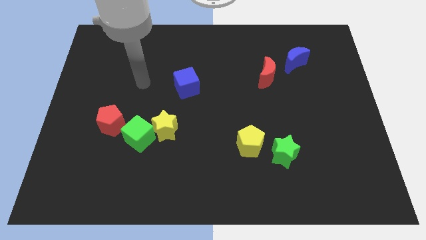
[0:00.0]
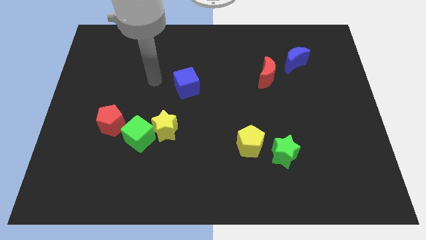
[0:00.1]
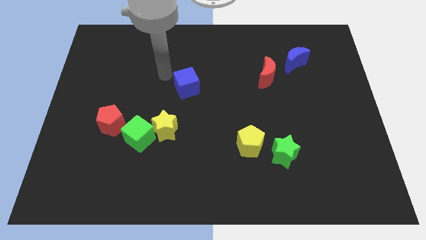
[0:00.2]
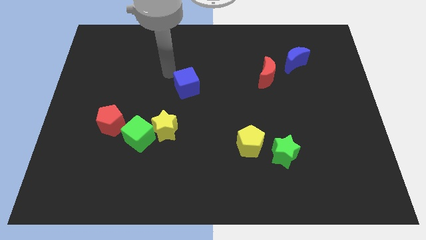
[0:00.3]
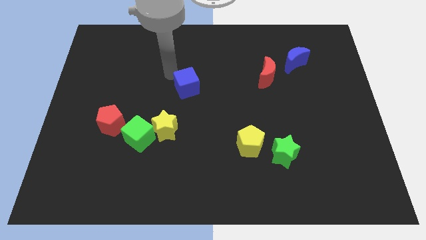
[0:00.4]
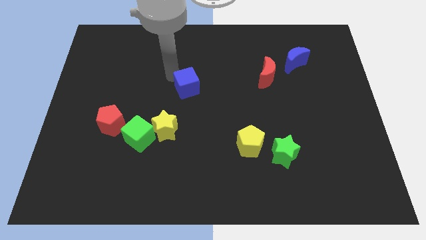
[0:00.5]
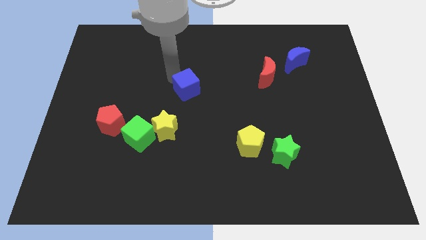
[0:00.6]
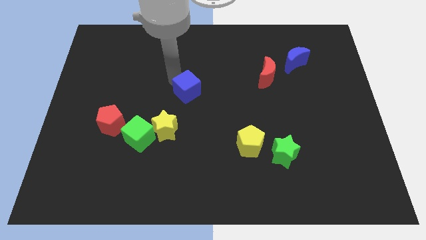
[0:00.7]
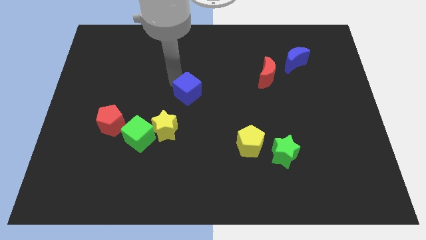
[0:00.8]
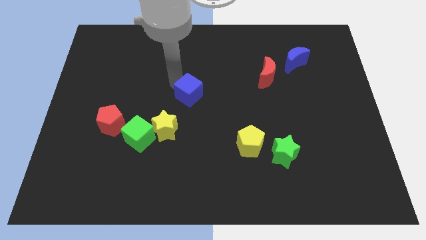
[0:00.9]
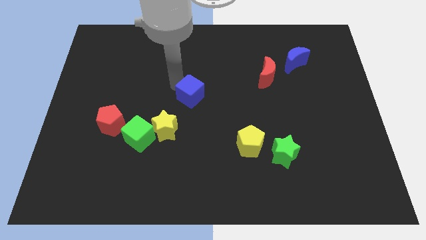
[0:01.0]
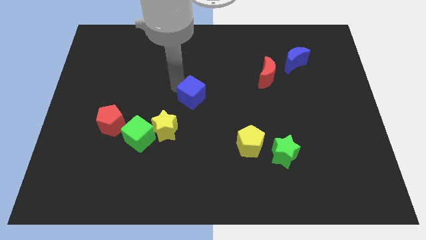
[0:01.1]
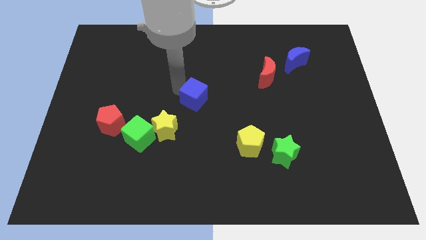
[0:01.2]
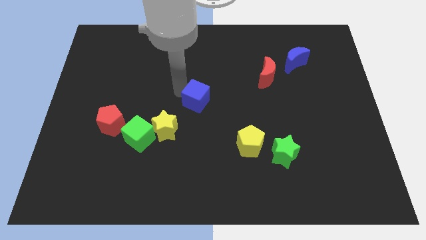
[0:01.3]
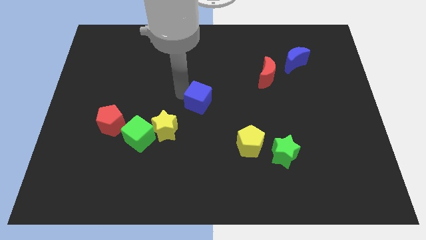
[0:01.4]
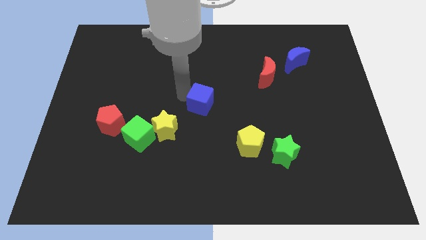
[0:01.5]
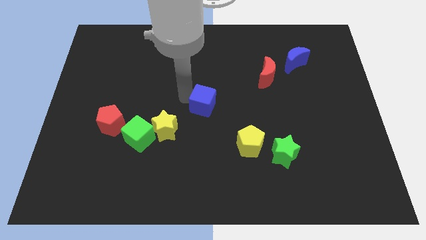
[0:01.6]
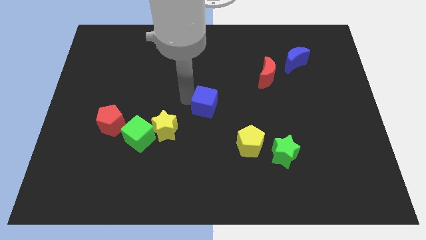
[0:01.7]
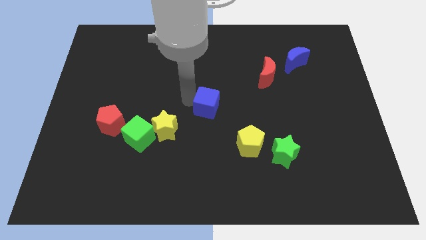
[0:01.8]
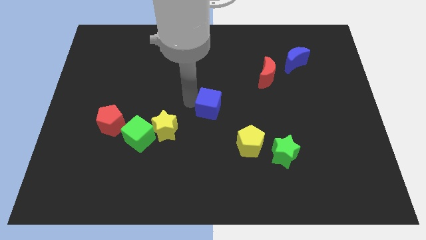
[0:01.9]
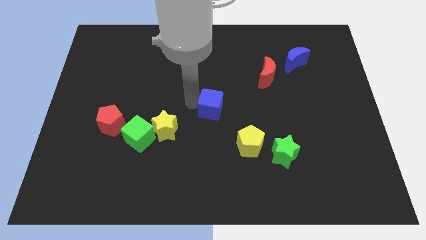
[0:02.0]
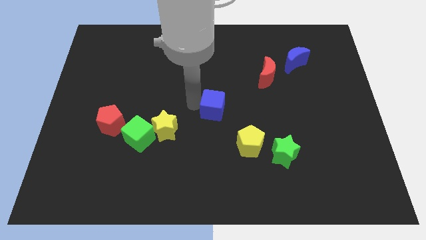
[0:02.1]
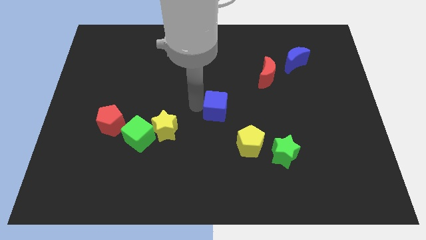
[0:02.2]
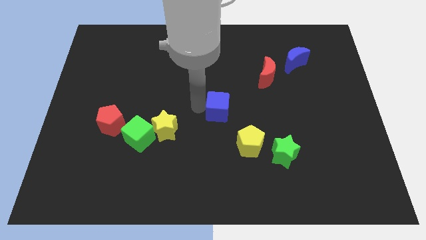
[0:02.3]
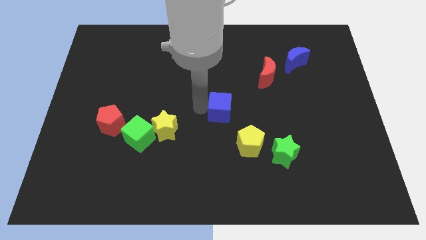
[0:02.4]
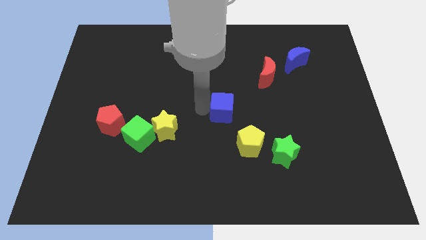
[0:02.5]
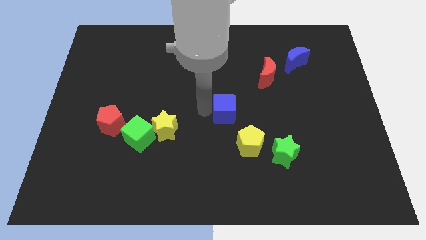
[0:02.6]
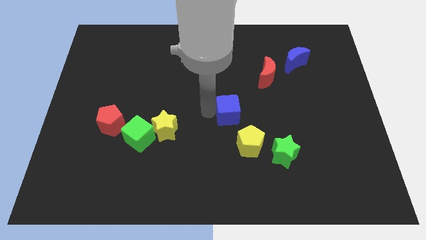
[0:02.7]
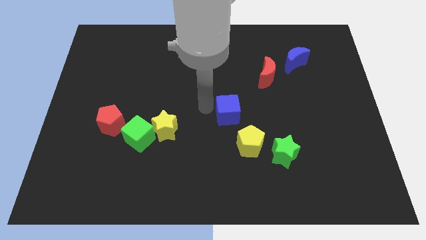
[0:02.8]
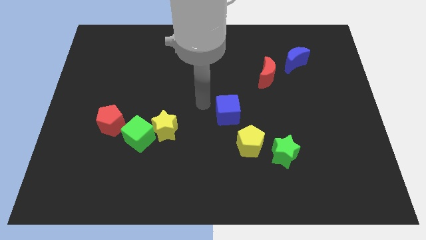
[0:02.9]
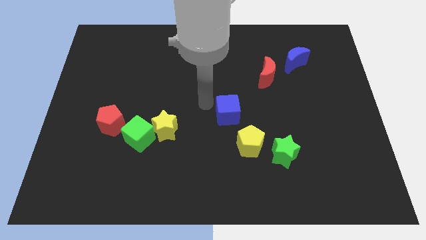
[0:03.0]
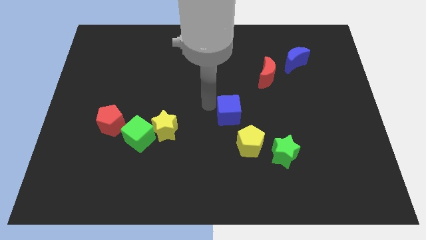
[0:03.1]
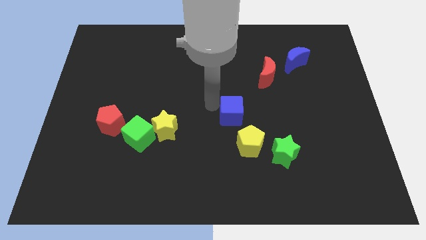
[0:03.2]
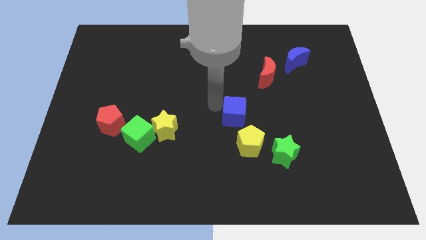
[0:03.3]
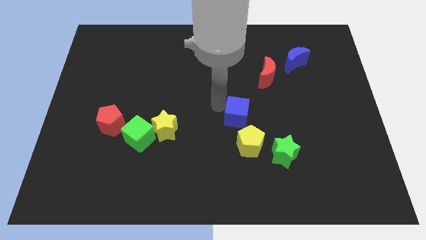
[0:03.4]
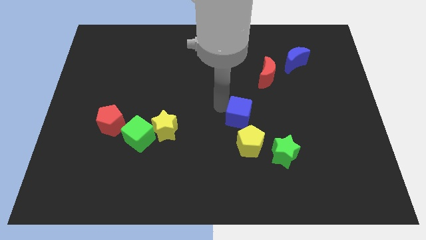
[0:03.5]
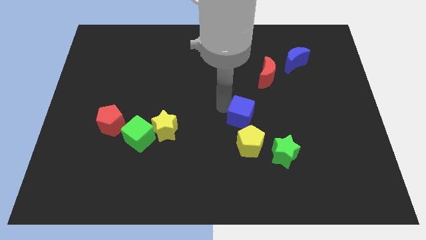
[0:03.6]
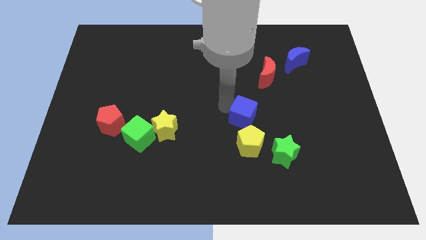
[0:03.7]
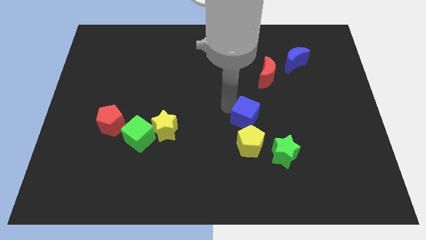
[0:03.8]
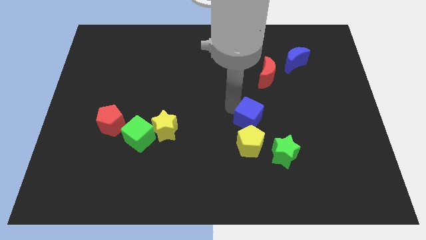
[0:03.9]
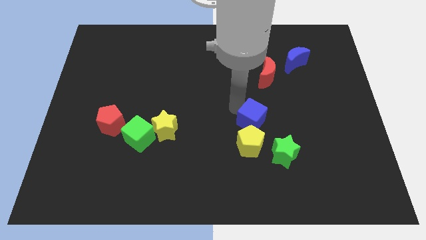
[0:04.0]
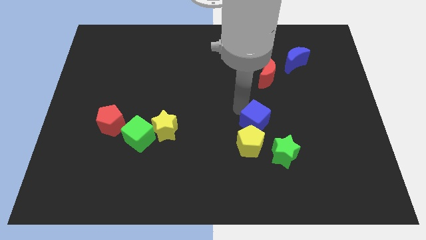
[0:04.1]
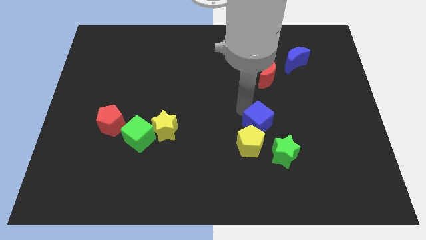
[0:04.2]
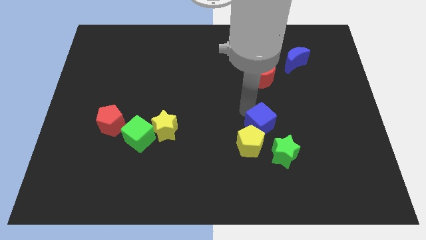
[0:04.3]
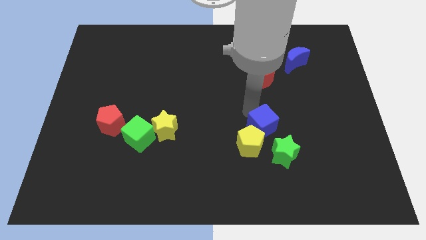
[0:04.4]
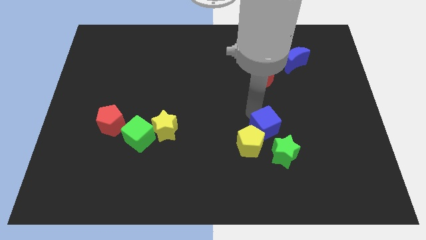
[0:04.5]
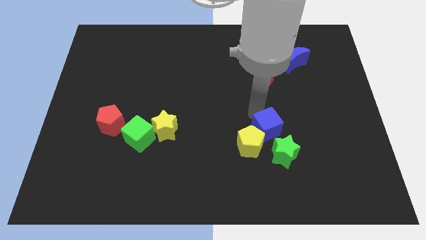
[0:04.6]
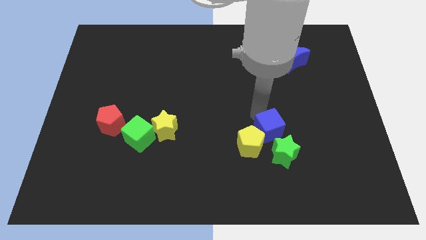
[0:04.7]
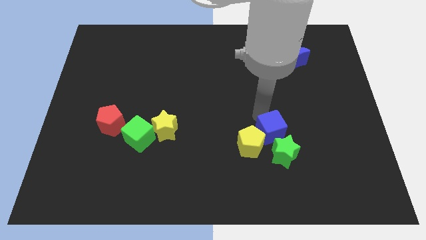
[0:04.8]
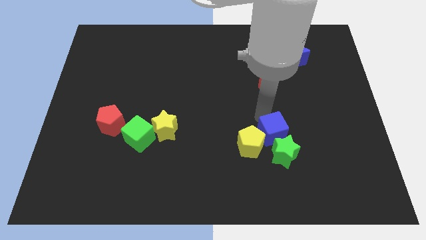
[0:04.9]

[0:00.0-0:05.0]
push the blue cube to the green star

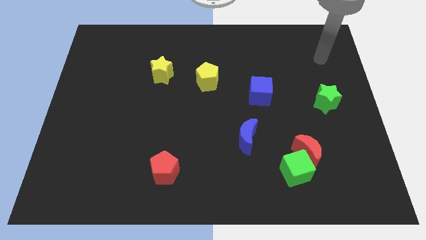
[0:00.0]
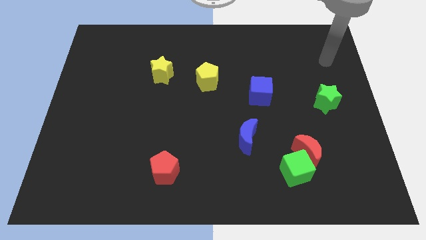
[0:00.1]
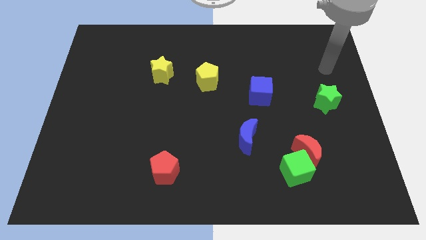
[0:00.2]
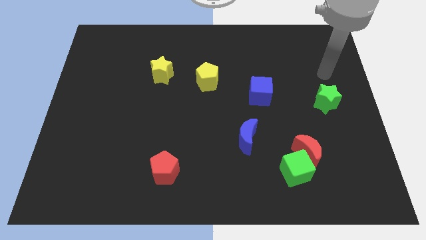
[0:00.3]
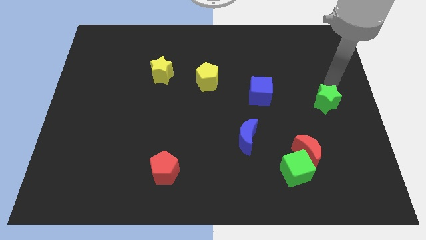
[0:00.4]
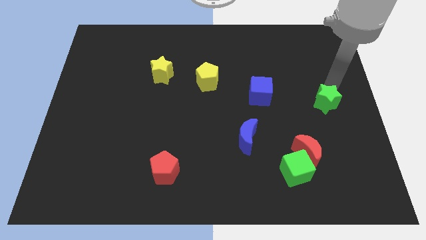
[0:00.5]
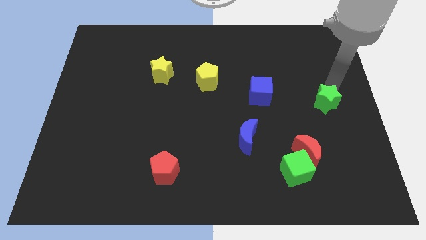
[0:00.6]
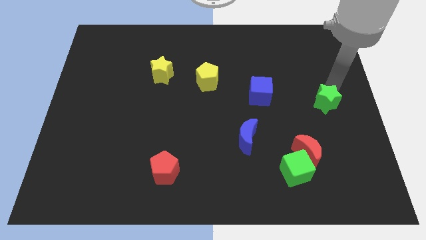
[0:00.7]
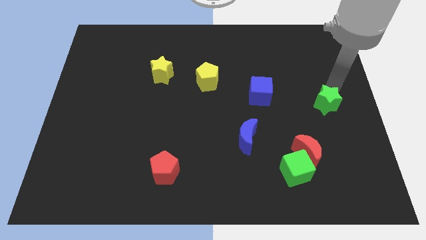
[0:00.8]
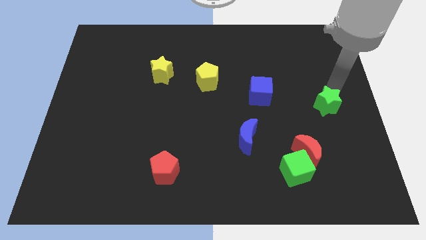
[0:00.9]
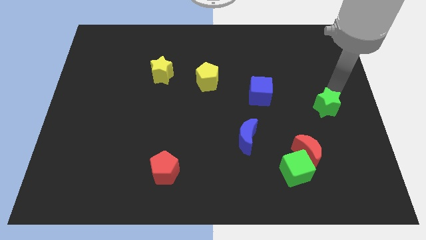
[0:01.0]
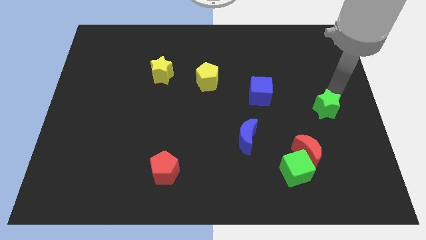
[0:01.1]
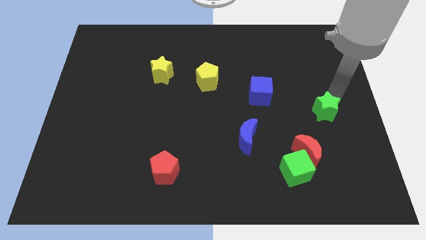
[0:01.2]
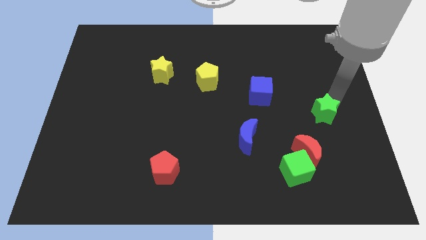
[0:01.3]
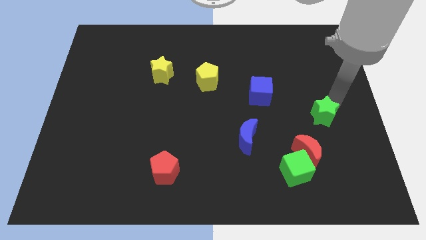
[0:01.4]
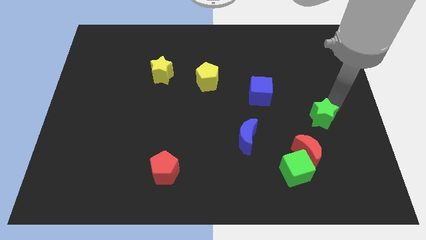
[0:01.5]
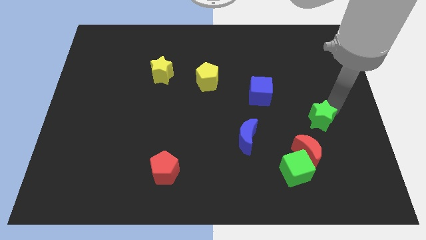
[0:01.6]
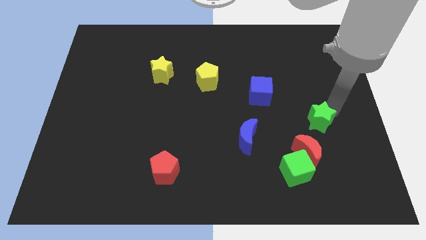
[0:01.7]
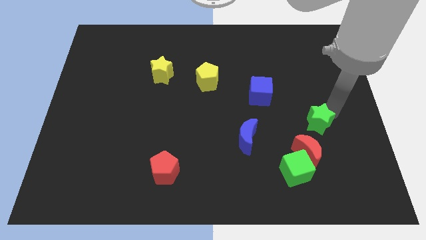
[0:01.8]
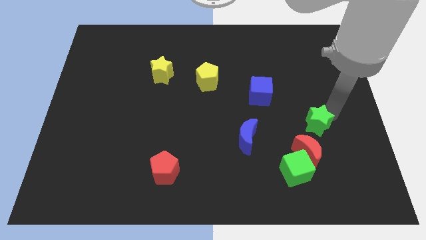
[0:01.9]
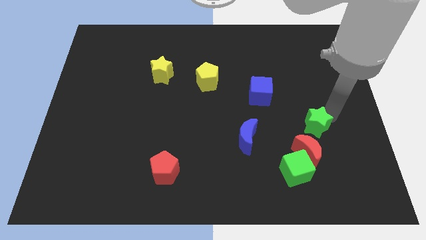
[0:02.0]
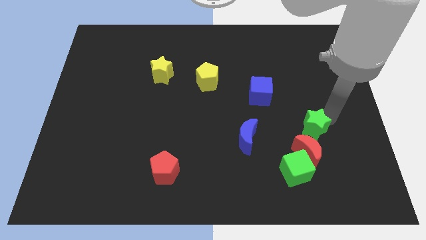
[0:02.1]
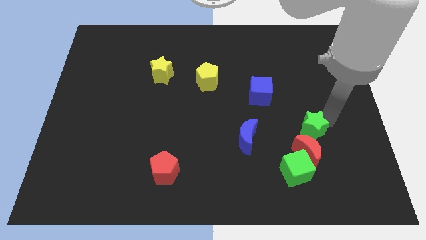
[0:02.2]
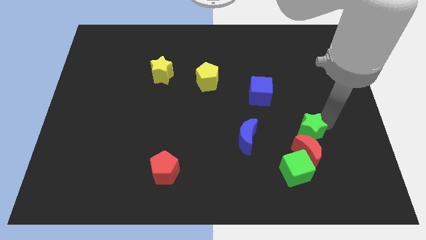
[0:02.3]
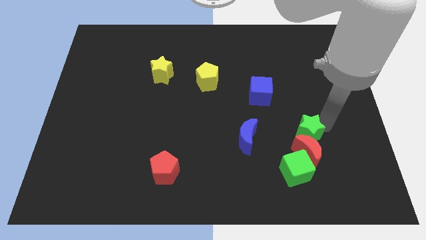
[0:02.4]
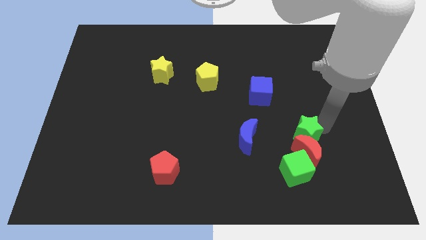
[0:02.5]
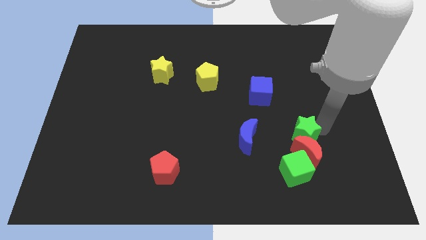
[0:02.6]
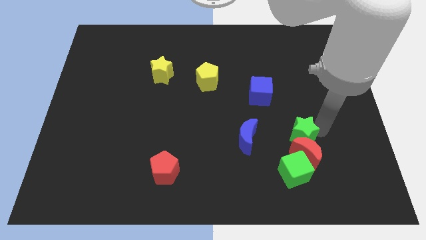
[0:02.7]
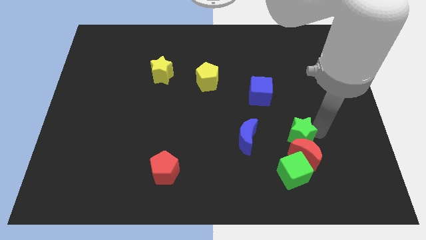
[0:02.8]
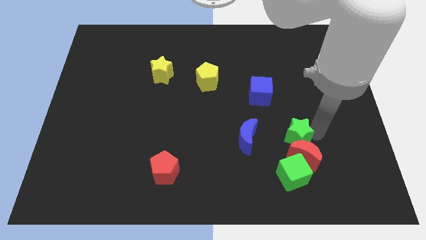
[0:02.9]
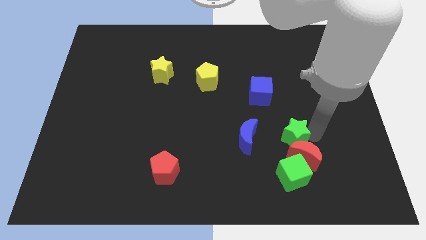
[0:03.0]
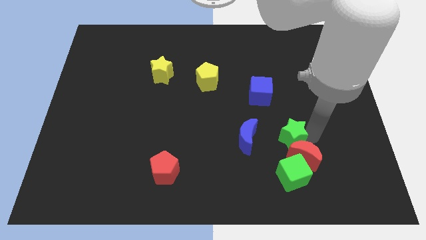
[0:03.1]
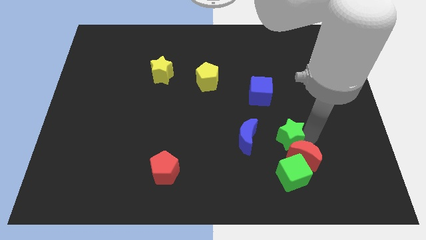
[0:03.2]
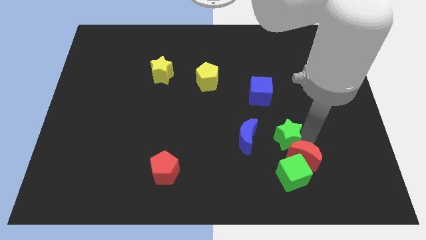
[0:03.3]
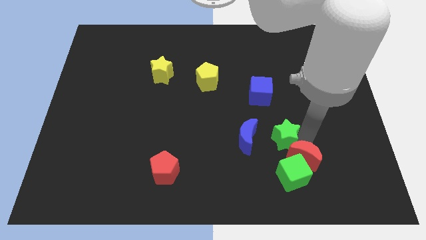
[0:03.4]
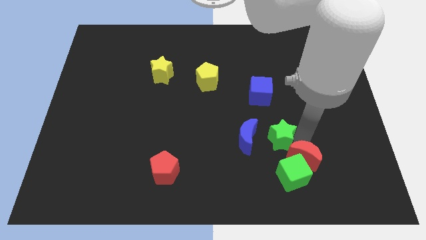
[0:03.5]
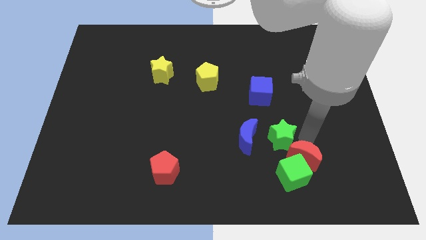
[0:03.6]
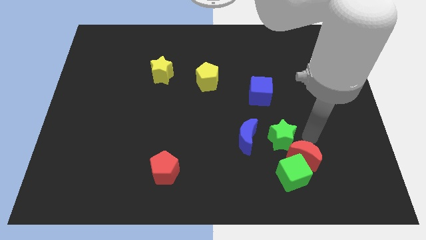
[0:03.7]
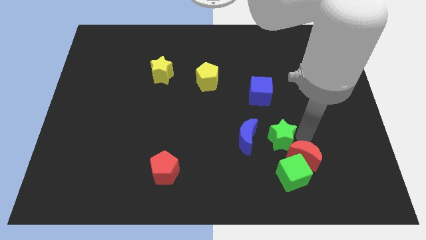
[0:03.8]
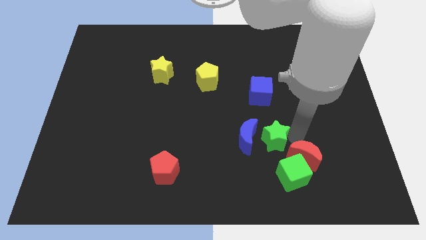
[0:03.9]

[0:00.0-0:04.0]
put the green star towards the blue moon
